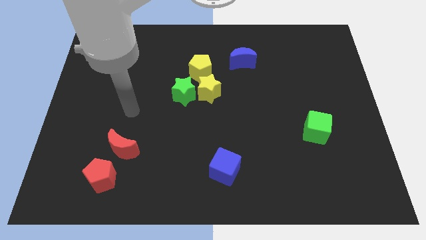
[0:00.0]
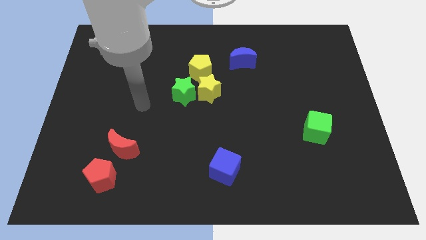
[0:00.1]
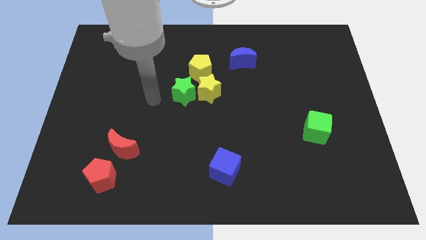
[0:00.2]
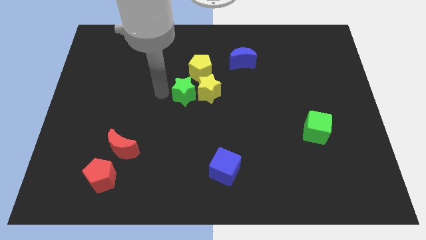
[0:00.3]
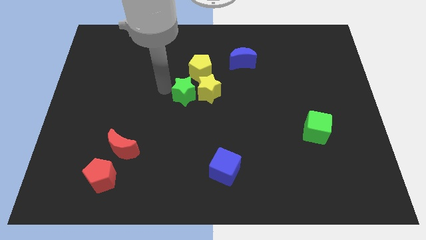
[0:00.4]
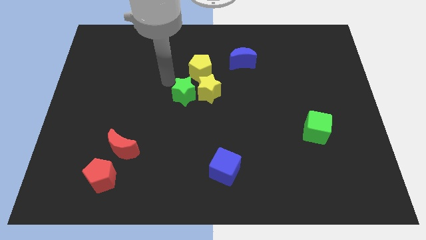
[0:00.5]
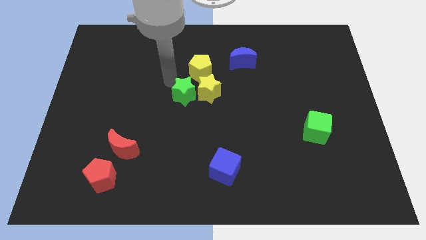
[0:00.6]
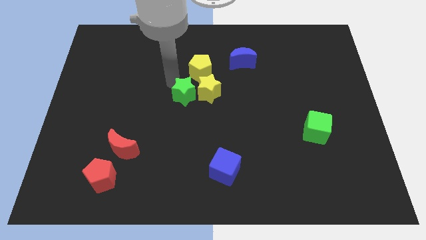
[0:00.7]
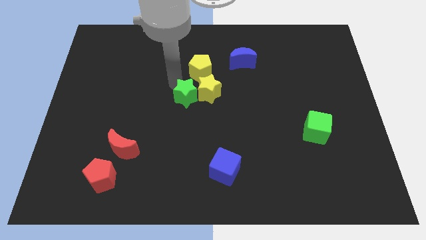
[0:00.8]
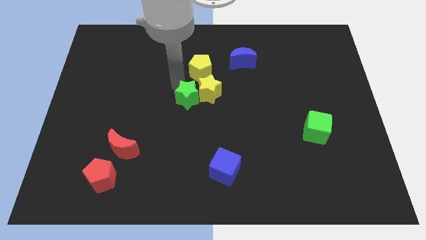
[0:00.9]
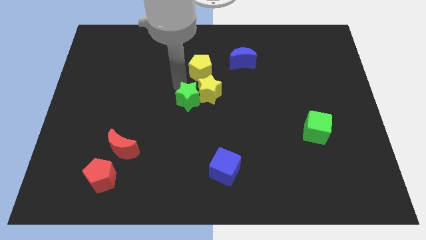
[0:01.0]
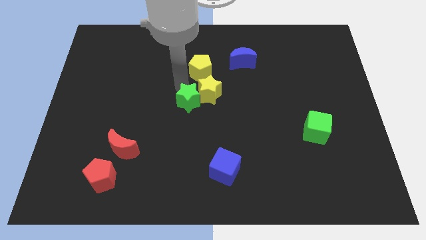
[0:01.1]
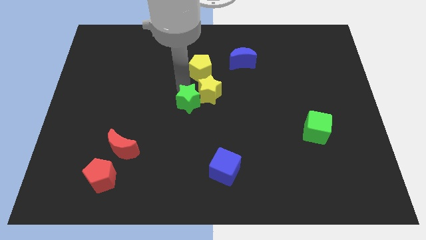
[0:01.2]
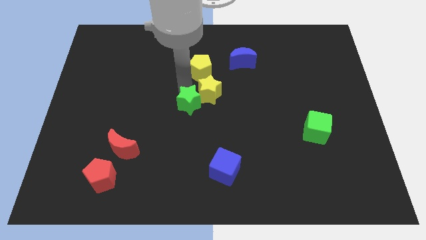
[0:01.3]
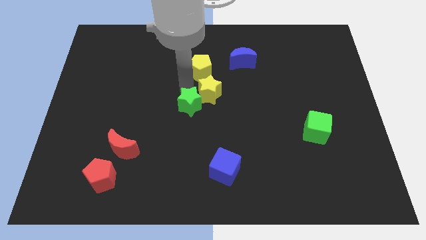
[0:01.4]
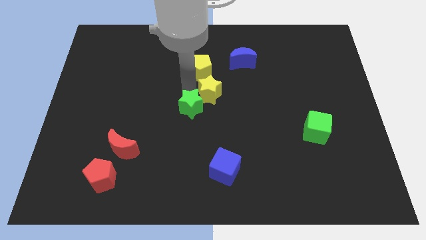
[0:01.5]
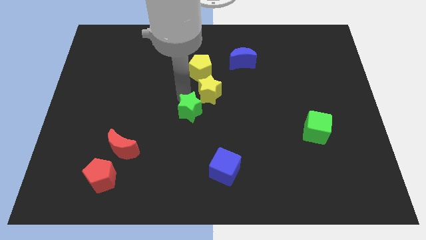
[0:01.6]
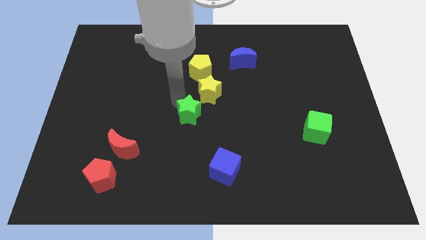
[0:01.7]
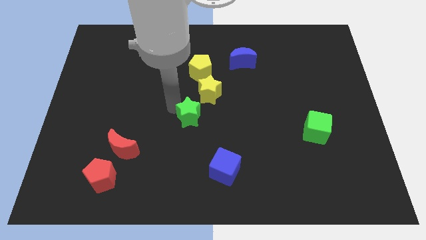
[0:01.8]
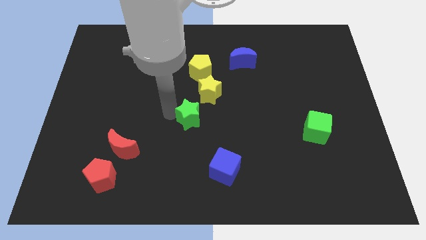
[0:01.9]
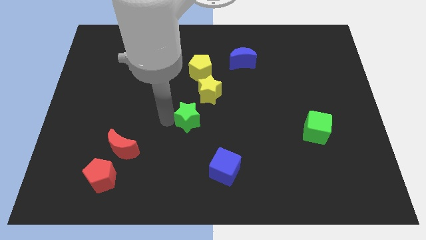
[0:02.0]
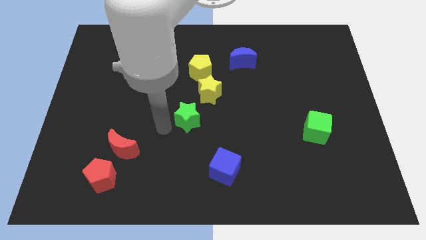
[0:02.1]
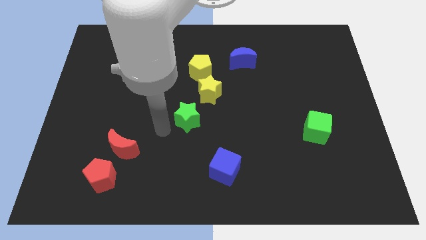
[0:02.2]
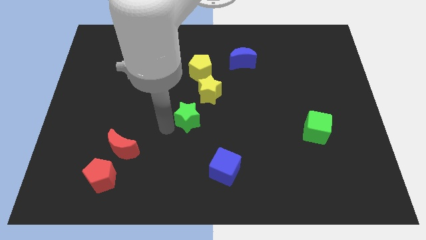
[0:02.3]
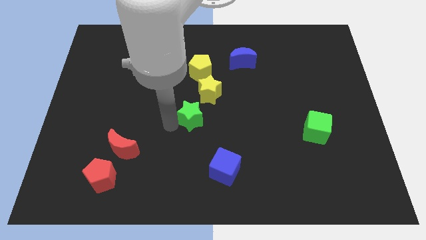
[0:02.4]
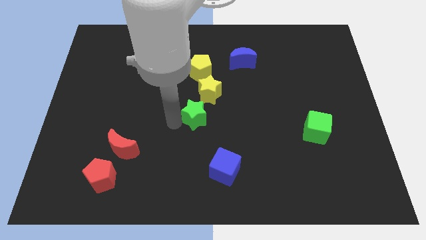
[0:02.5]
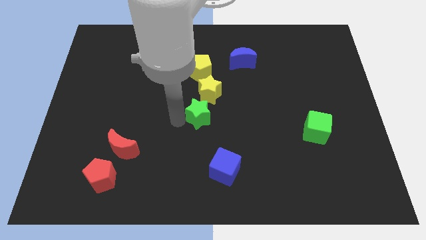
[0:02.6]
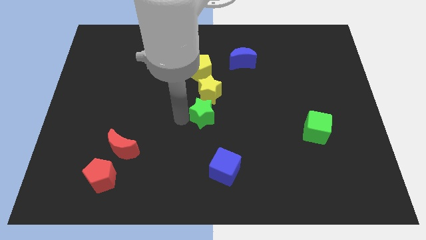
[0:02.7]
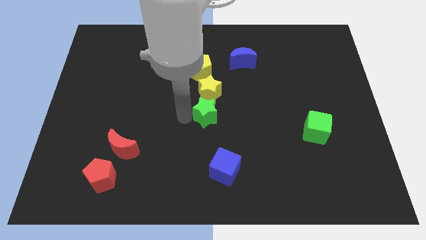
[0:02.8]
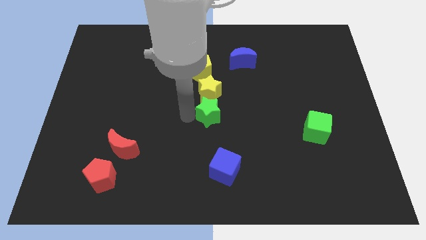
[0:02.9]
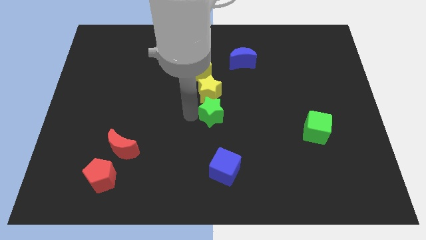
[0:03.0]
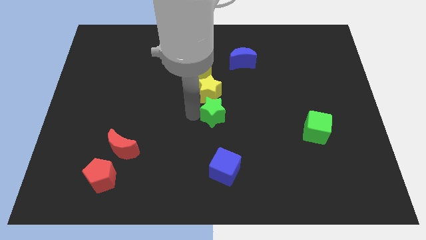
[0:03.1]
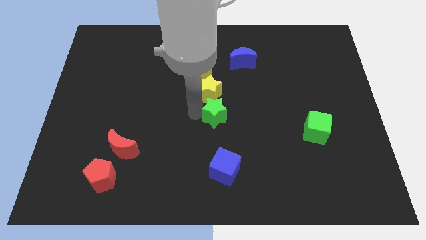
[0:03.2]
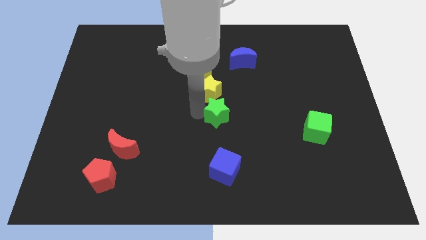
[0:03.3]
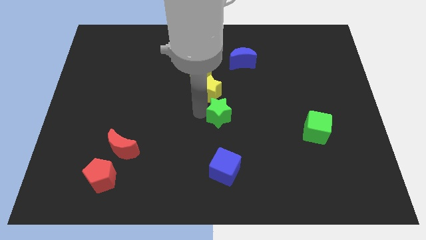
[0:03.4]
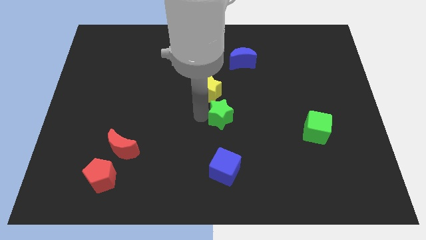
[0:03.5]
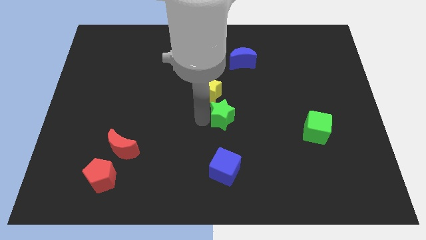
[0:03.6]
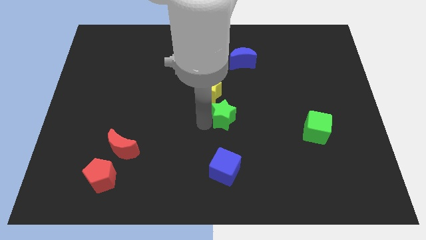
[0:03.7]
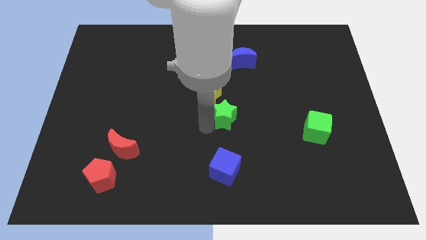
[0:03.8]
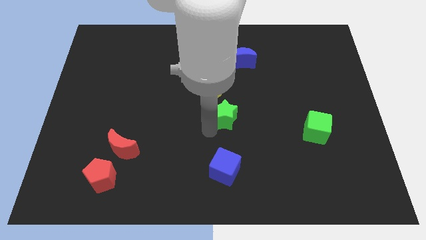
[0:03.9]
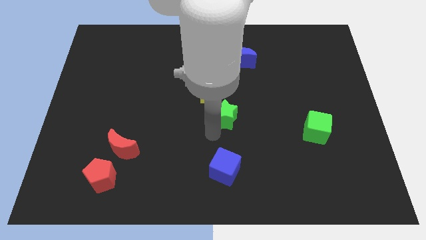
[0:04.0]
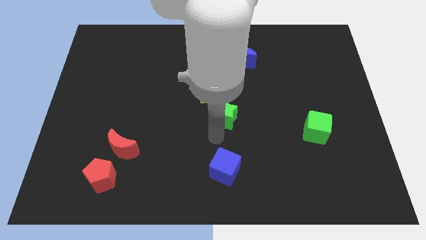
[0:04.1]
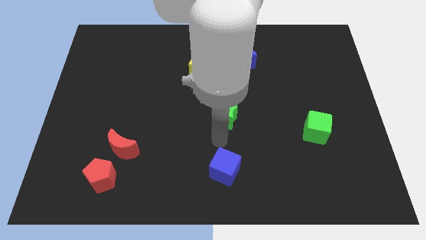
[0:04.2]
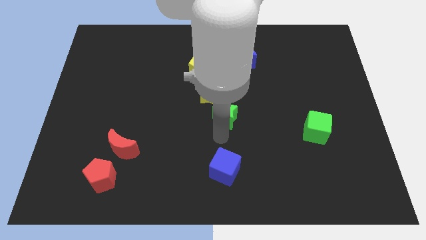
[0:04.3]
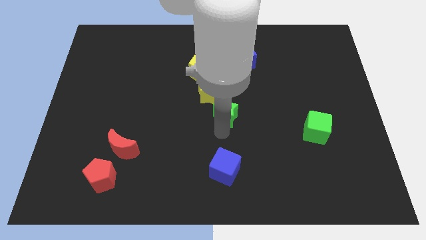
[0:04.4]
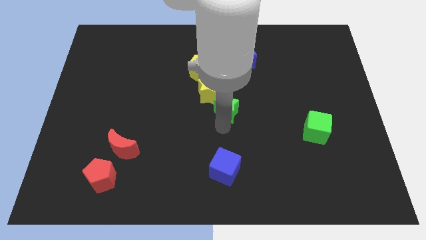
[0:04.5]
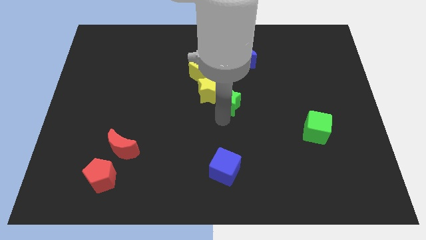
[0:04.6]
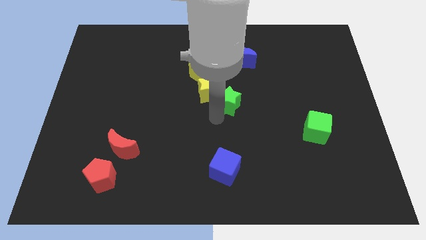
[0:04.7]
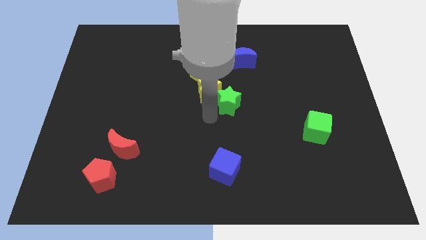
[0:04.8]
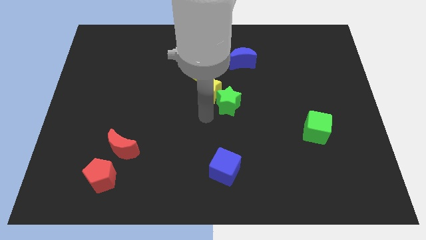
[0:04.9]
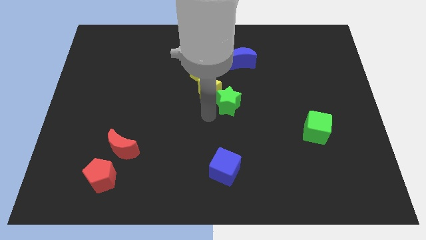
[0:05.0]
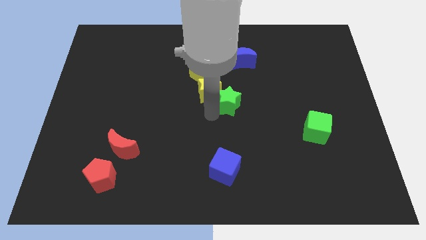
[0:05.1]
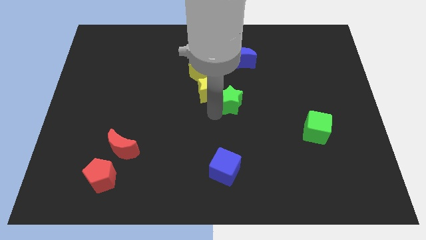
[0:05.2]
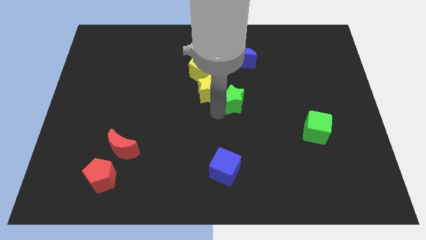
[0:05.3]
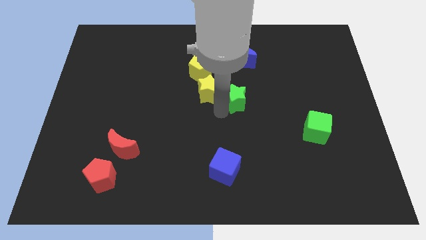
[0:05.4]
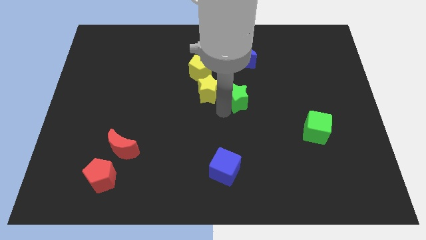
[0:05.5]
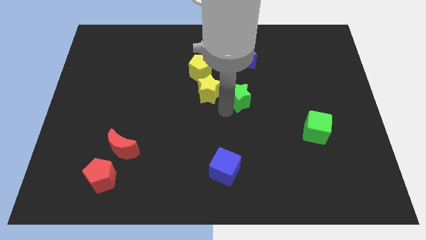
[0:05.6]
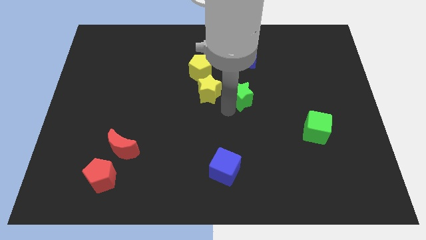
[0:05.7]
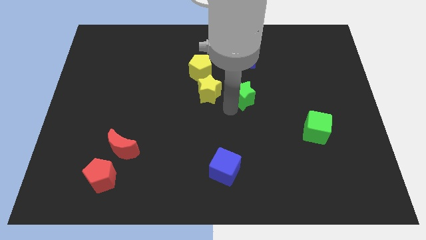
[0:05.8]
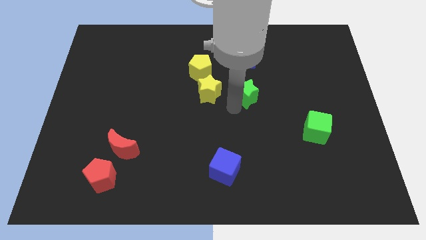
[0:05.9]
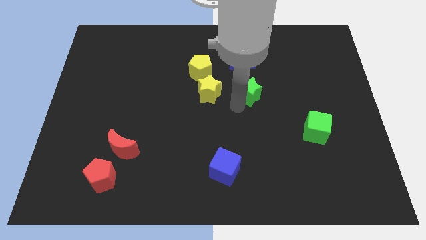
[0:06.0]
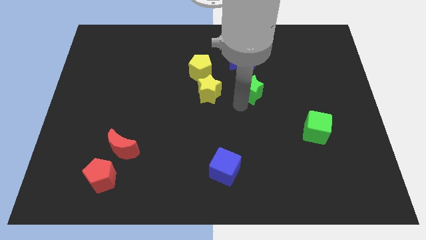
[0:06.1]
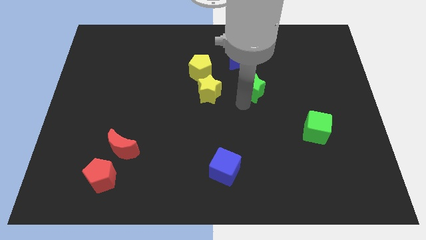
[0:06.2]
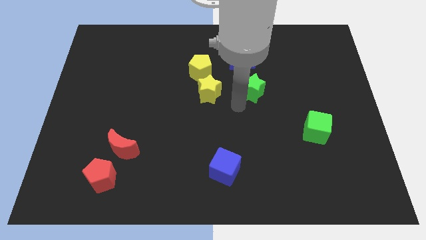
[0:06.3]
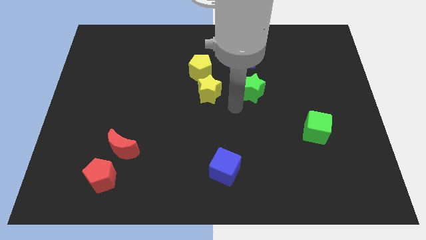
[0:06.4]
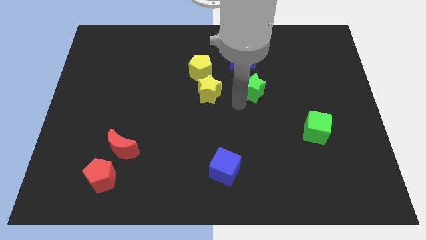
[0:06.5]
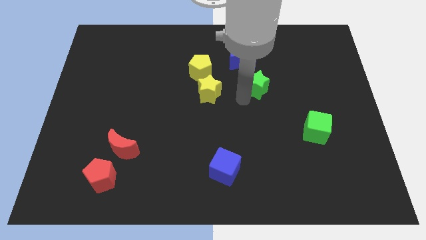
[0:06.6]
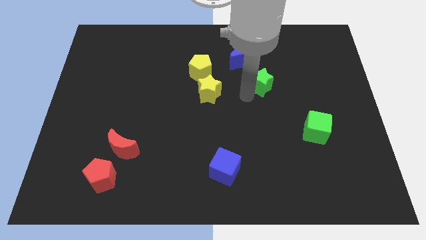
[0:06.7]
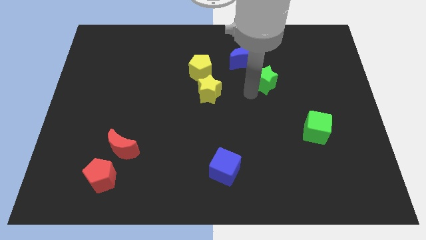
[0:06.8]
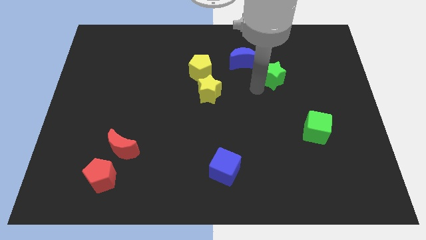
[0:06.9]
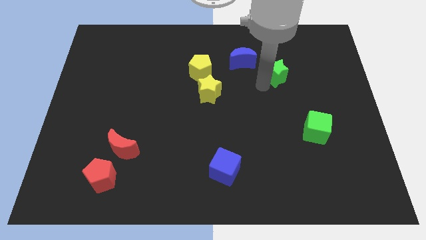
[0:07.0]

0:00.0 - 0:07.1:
slide the green star to the right of the blue moon
